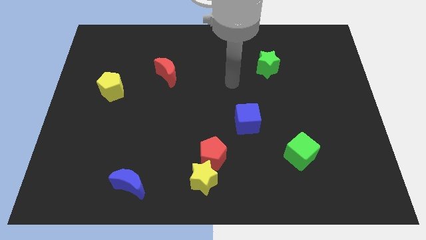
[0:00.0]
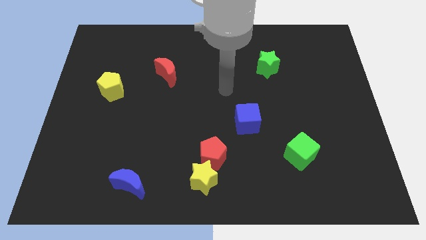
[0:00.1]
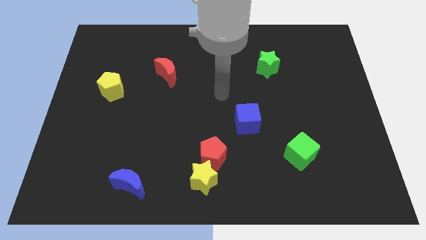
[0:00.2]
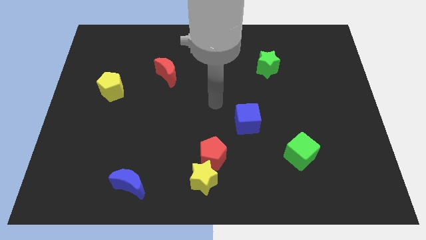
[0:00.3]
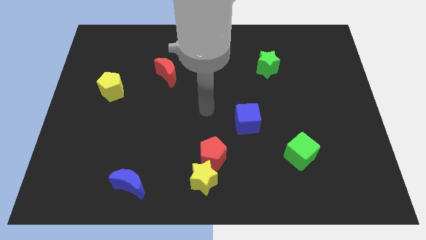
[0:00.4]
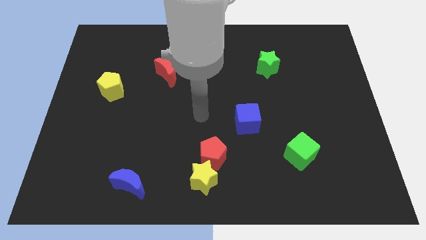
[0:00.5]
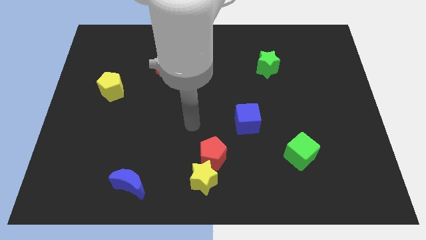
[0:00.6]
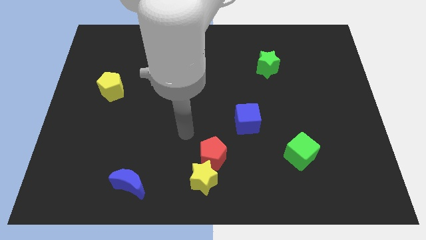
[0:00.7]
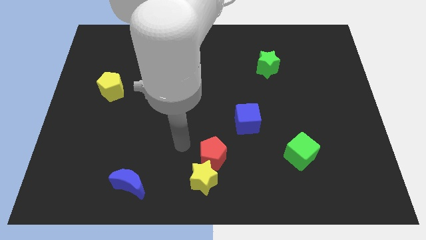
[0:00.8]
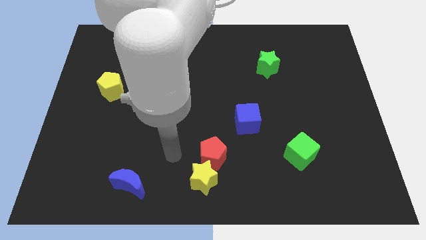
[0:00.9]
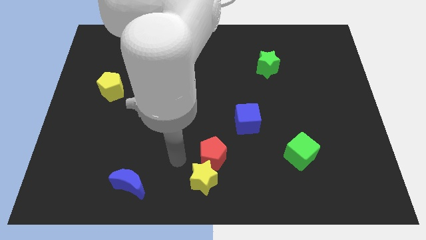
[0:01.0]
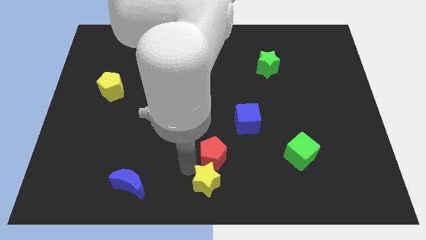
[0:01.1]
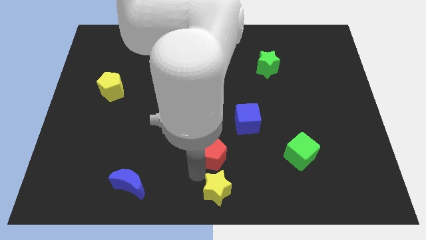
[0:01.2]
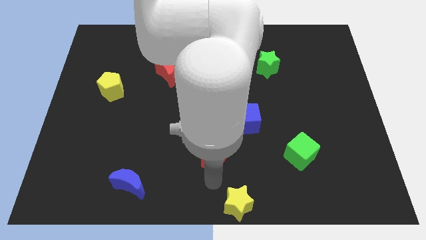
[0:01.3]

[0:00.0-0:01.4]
move the red pentagon away from the yellow star

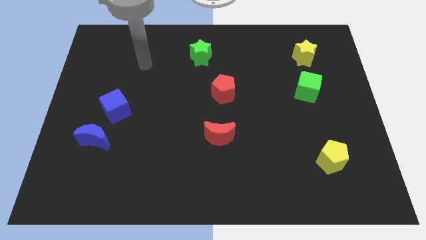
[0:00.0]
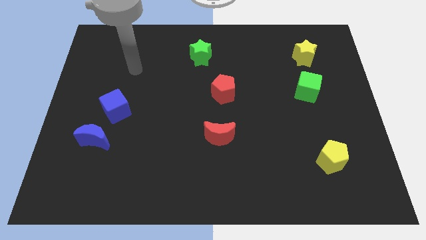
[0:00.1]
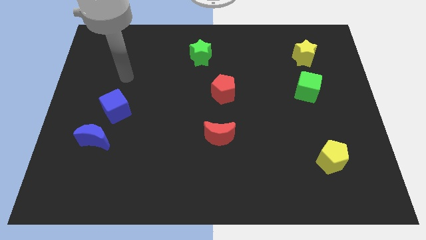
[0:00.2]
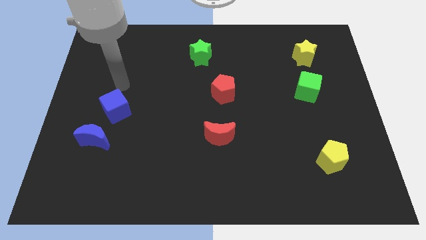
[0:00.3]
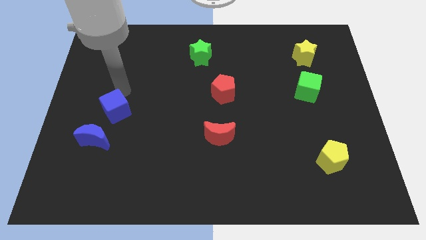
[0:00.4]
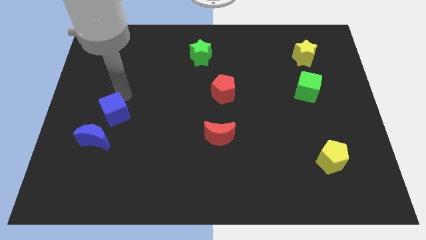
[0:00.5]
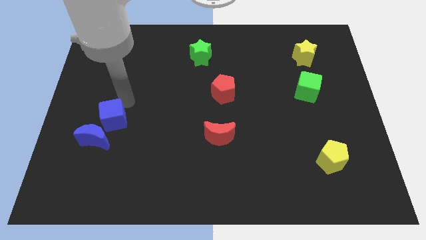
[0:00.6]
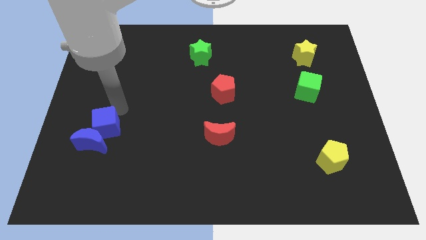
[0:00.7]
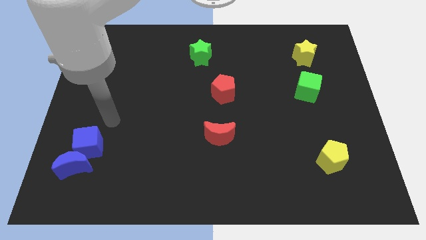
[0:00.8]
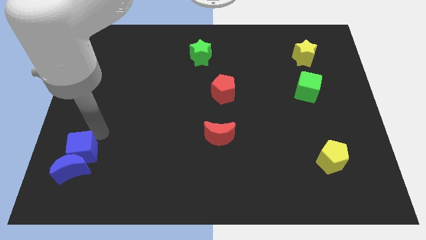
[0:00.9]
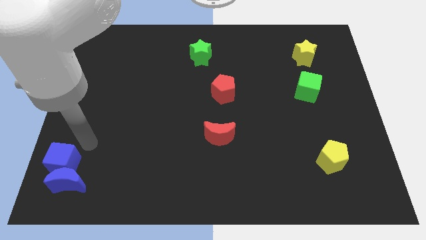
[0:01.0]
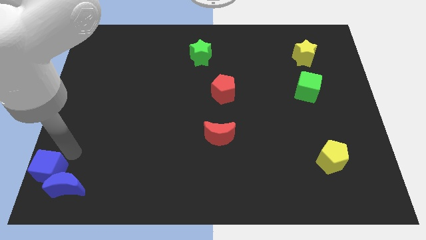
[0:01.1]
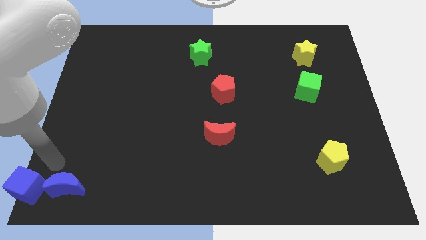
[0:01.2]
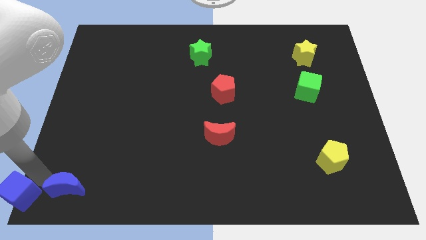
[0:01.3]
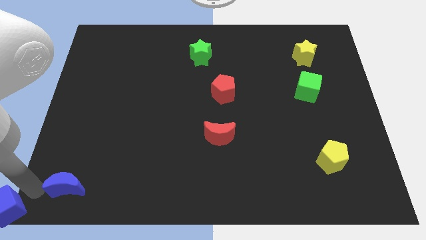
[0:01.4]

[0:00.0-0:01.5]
separate the blue moon from the blue cube

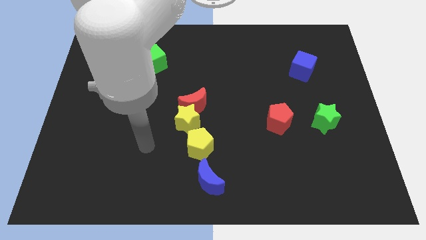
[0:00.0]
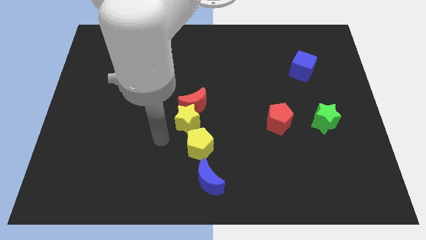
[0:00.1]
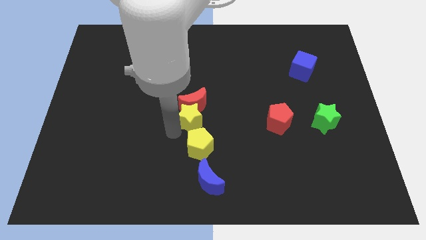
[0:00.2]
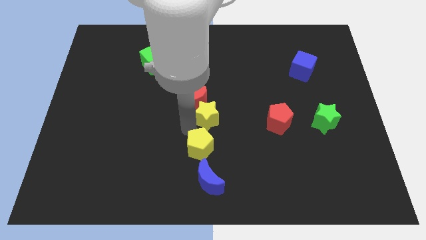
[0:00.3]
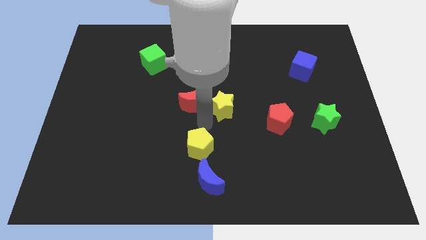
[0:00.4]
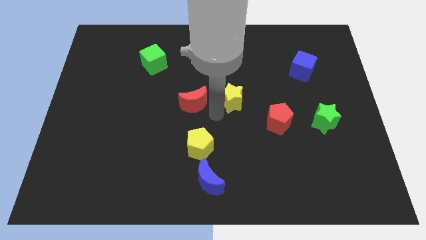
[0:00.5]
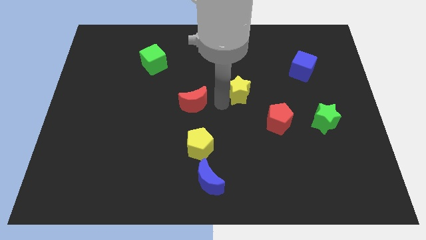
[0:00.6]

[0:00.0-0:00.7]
pull the red moon apart from the yellow star

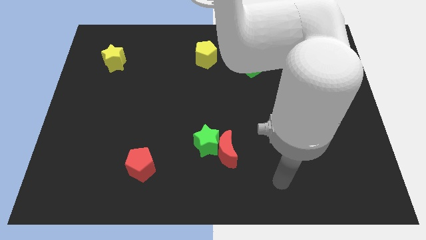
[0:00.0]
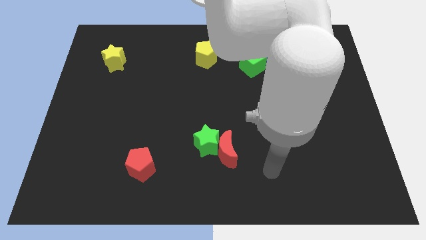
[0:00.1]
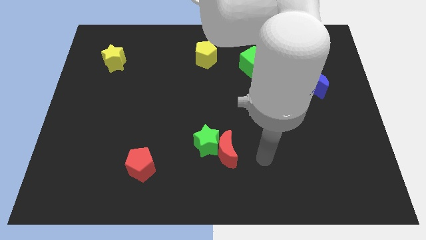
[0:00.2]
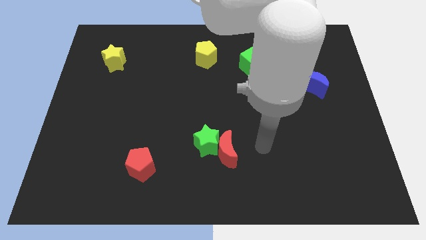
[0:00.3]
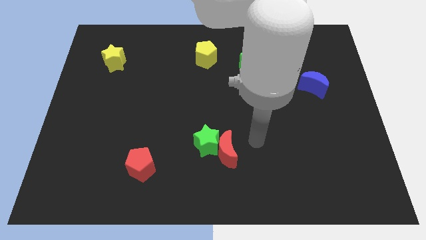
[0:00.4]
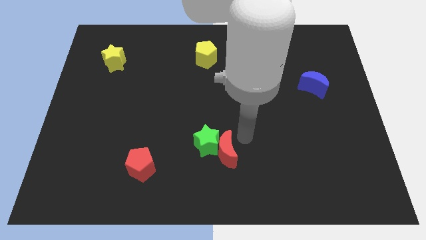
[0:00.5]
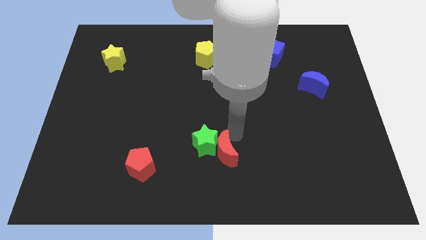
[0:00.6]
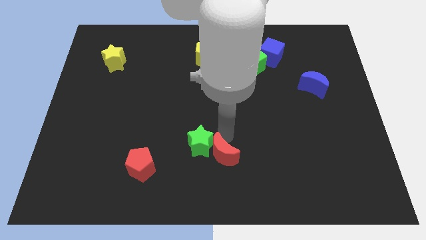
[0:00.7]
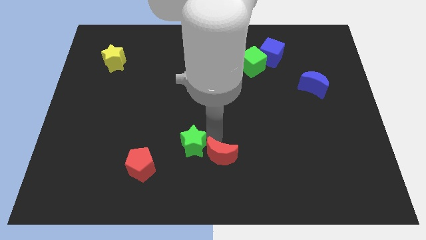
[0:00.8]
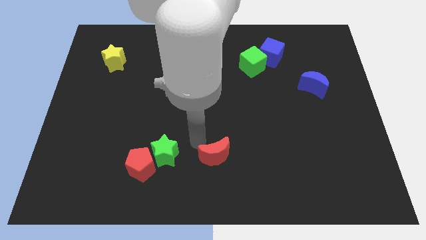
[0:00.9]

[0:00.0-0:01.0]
move the red moon away from the green star

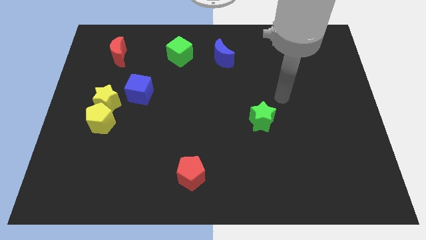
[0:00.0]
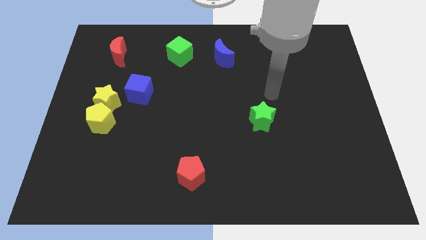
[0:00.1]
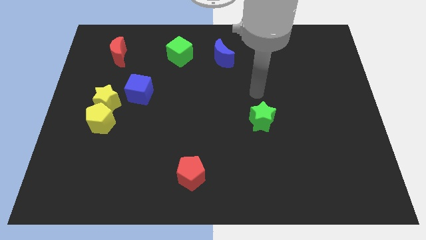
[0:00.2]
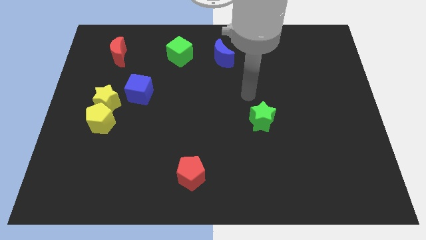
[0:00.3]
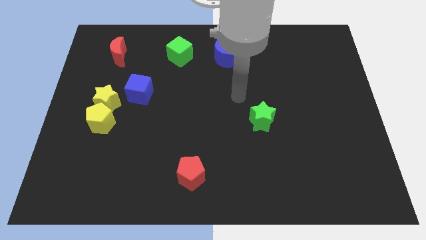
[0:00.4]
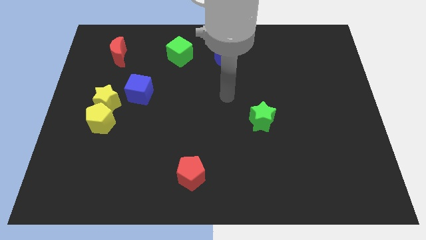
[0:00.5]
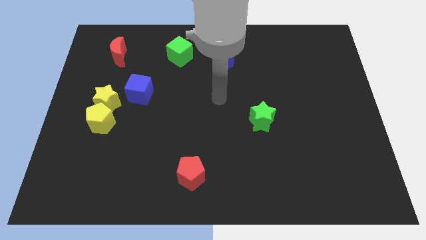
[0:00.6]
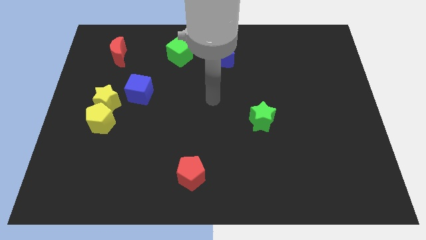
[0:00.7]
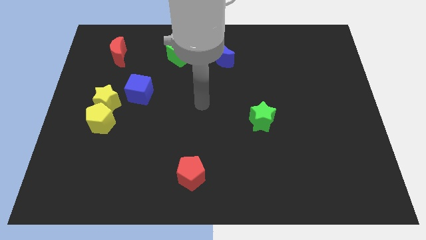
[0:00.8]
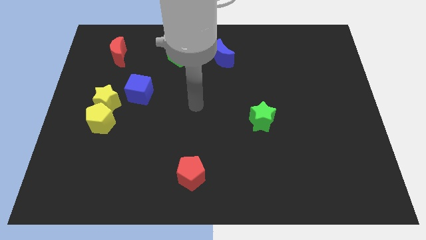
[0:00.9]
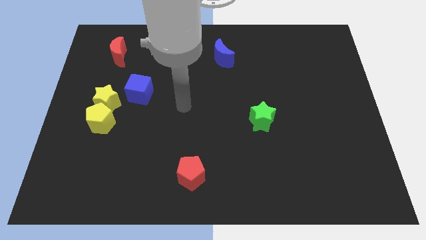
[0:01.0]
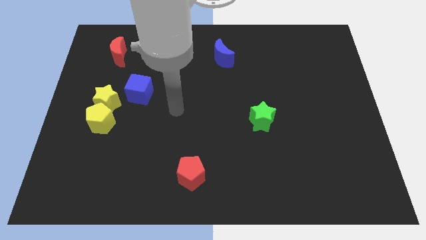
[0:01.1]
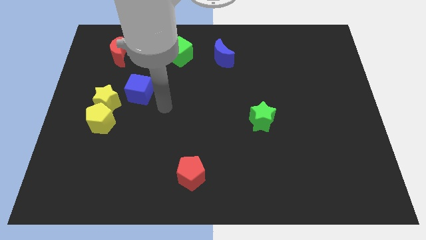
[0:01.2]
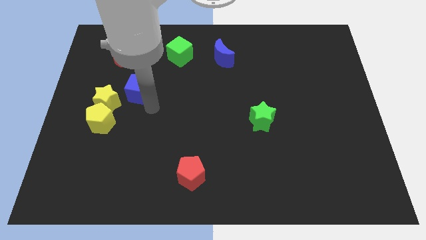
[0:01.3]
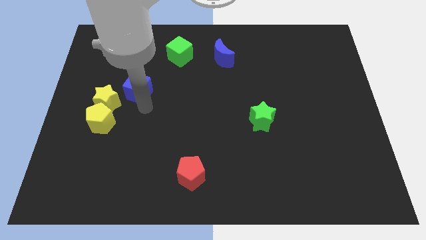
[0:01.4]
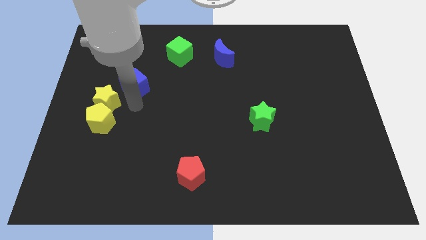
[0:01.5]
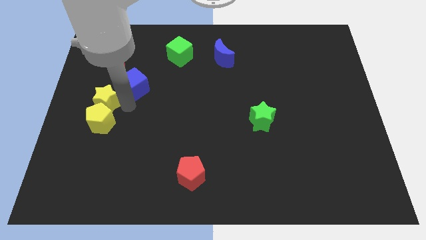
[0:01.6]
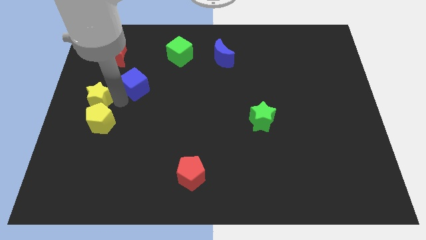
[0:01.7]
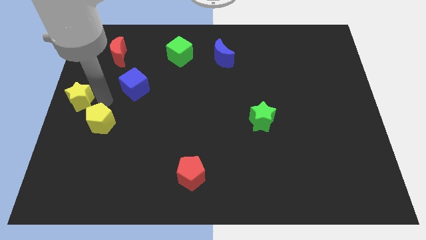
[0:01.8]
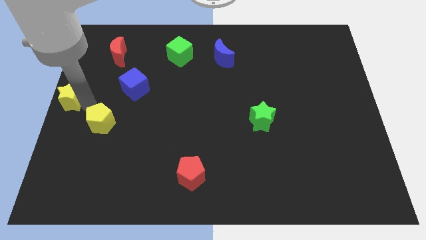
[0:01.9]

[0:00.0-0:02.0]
pull the yellow pentagon apart from the yellow star

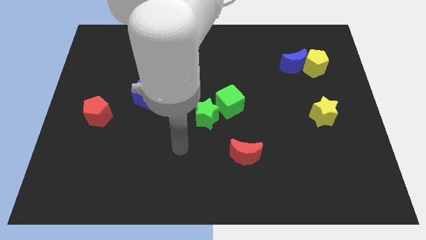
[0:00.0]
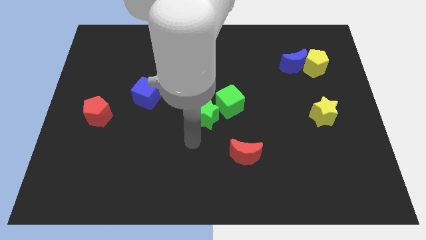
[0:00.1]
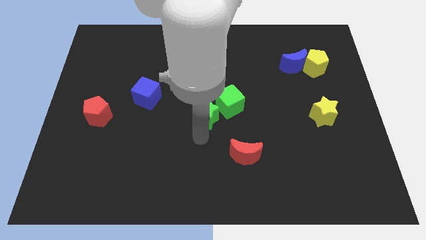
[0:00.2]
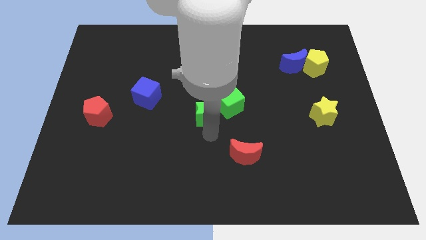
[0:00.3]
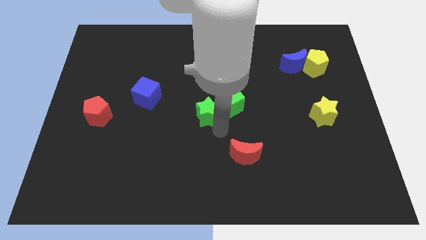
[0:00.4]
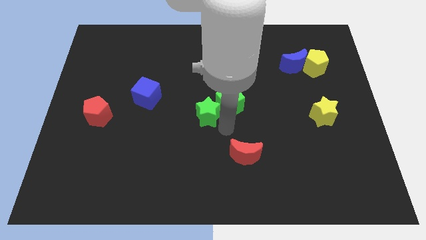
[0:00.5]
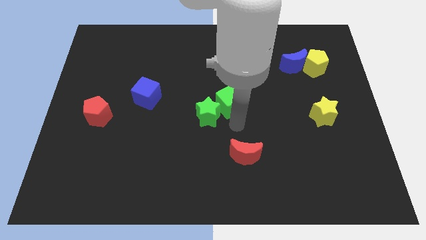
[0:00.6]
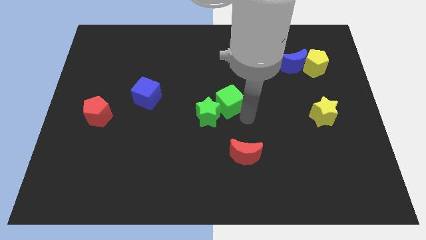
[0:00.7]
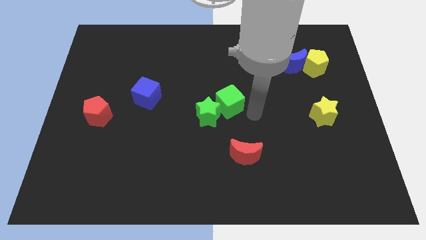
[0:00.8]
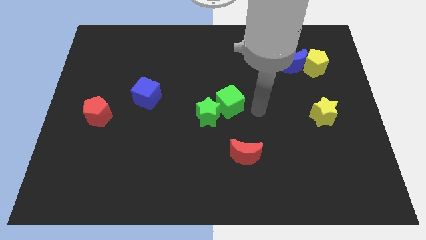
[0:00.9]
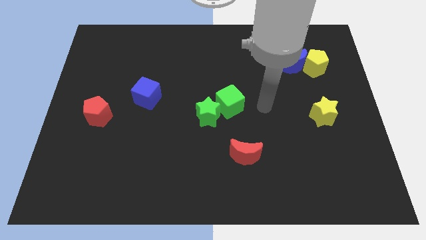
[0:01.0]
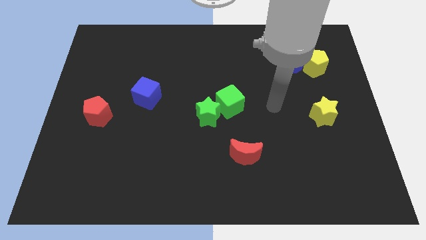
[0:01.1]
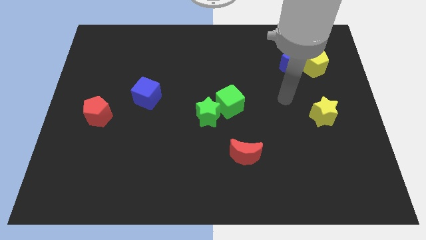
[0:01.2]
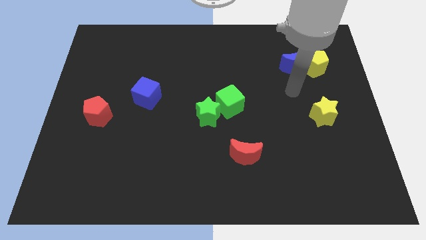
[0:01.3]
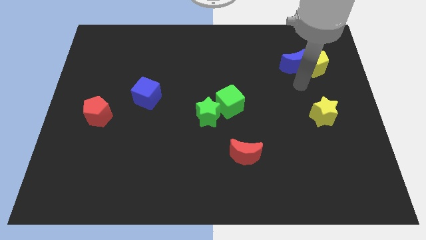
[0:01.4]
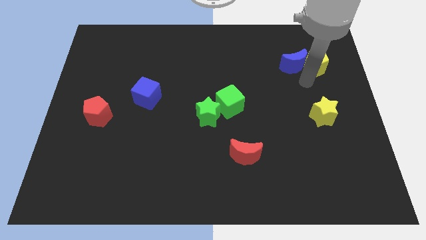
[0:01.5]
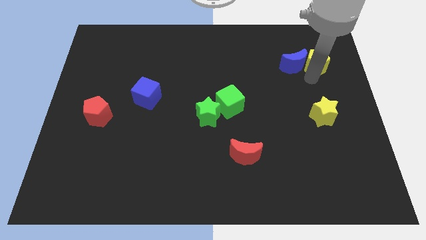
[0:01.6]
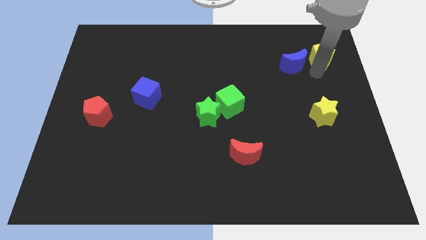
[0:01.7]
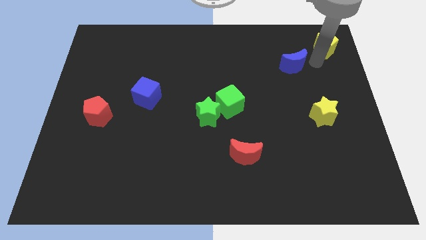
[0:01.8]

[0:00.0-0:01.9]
separate the blue moon from the yellow pentagon

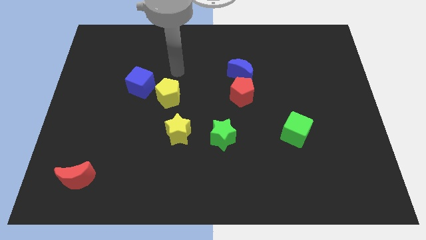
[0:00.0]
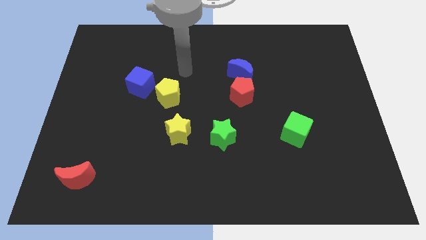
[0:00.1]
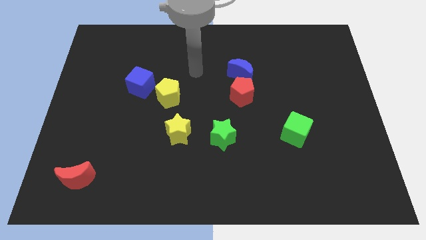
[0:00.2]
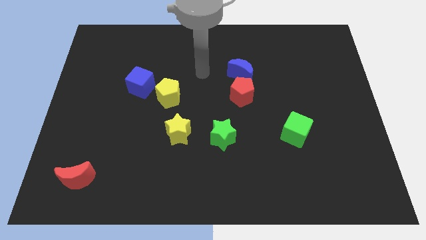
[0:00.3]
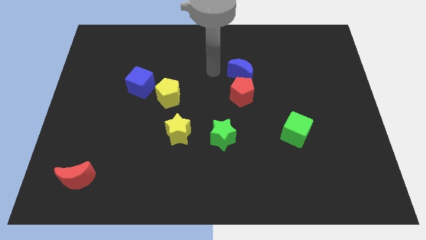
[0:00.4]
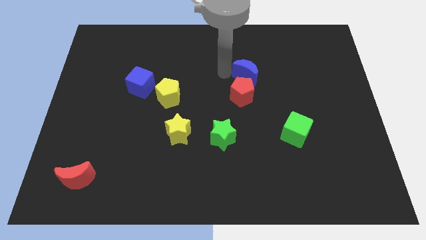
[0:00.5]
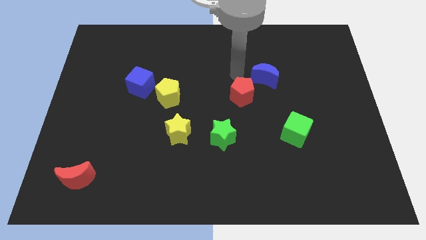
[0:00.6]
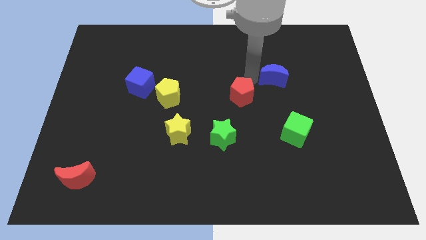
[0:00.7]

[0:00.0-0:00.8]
separate the red pentagon from the blue moon
